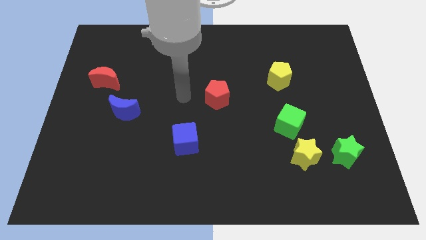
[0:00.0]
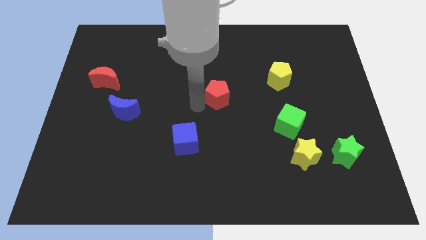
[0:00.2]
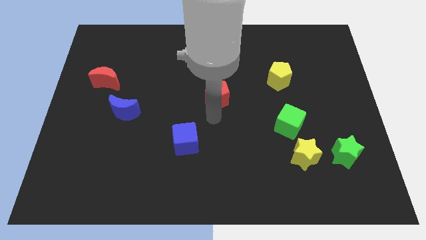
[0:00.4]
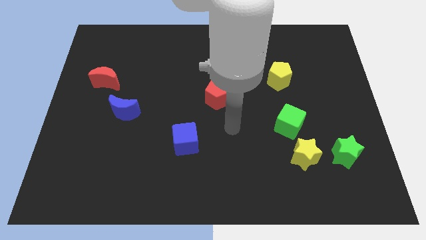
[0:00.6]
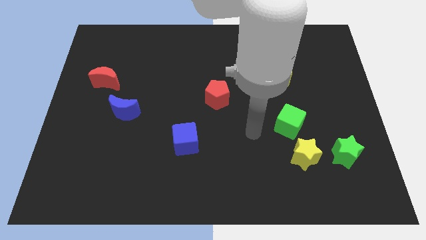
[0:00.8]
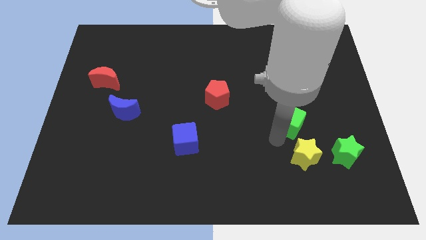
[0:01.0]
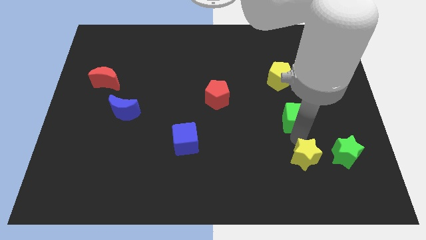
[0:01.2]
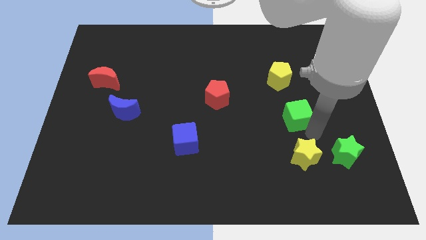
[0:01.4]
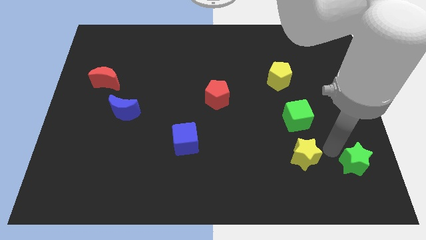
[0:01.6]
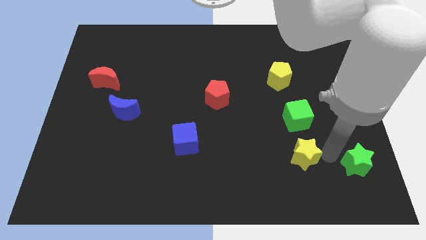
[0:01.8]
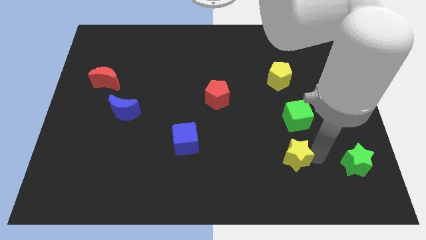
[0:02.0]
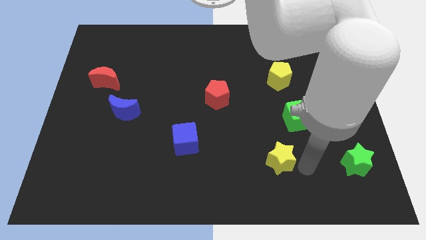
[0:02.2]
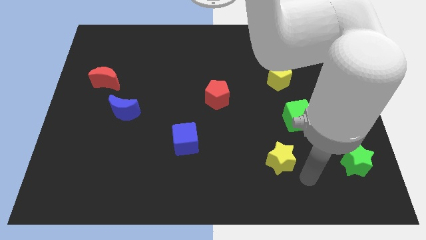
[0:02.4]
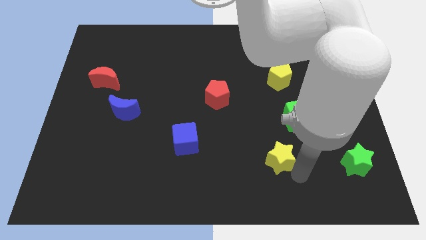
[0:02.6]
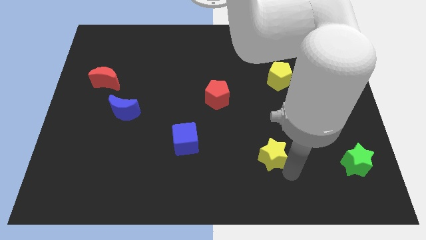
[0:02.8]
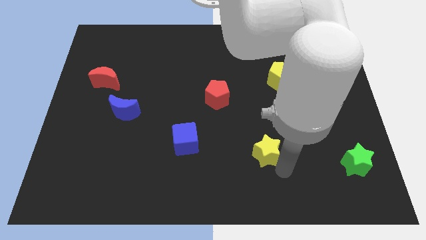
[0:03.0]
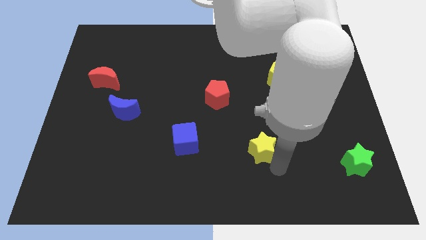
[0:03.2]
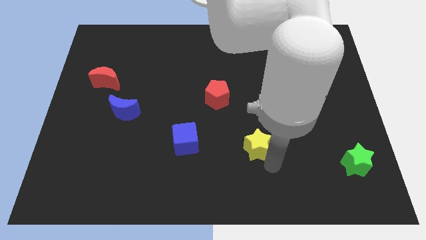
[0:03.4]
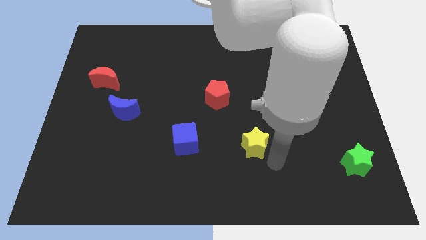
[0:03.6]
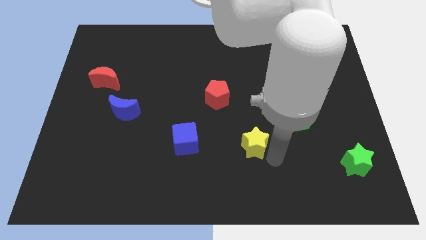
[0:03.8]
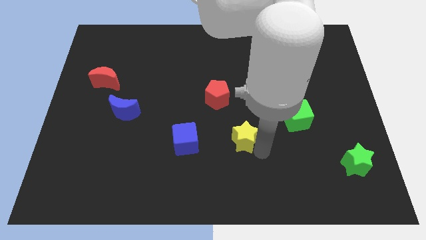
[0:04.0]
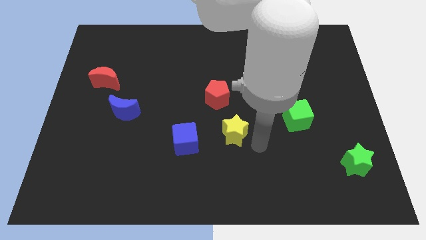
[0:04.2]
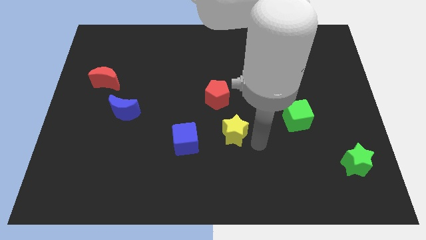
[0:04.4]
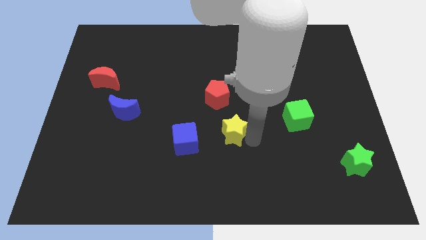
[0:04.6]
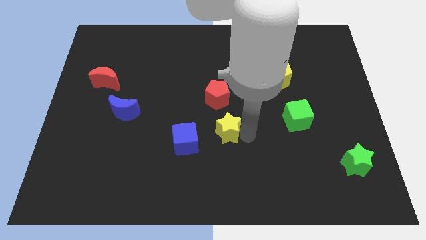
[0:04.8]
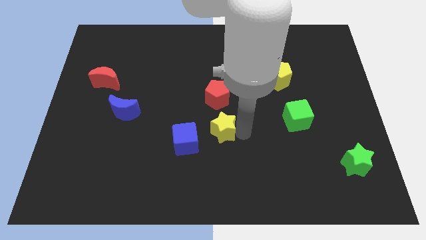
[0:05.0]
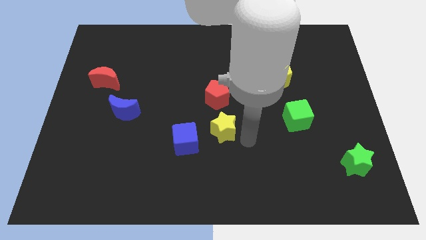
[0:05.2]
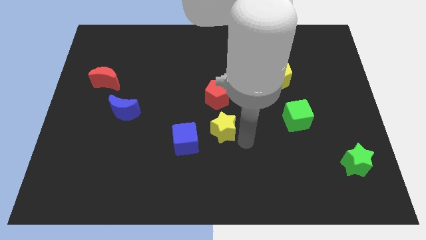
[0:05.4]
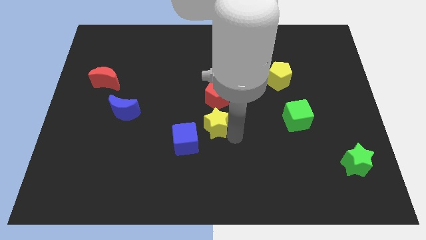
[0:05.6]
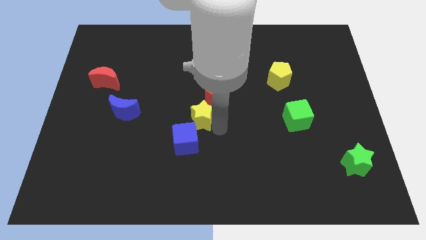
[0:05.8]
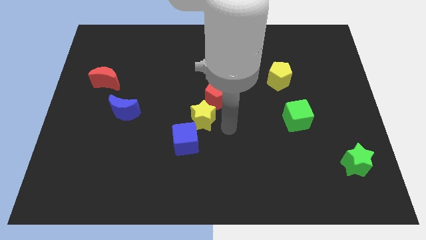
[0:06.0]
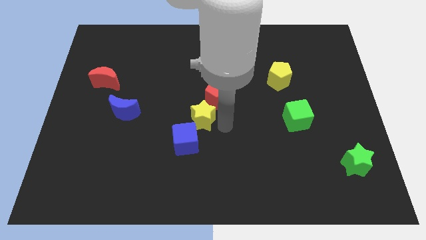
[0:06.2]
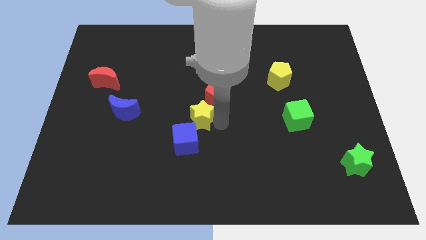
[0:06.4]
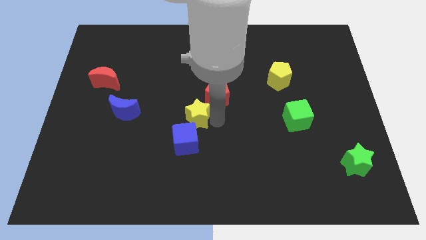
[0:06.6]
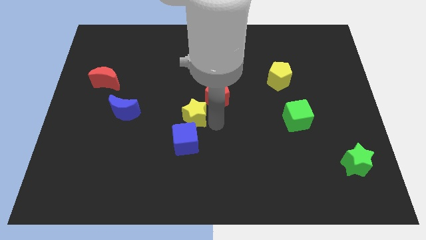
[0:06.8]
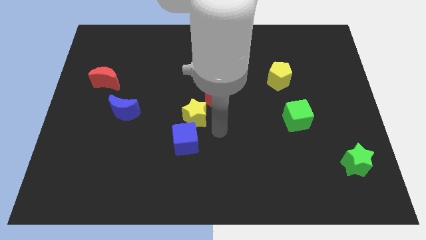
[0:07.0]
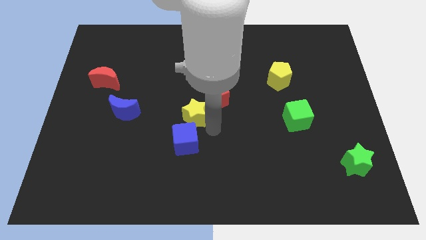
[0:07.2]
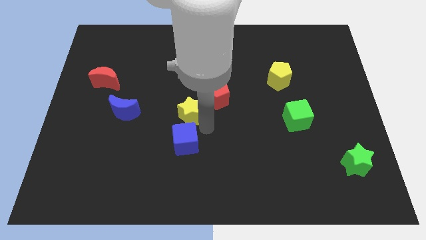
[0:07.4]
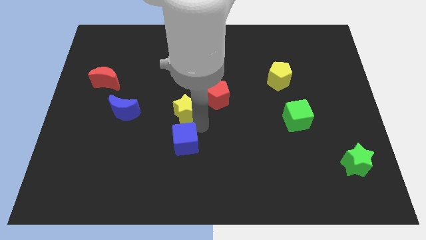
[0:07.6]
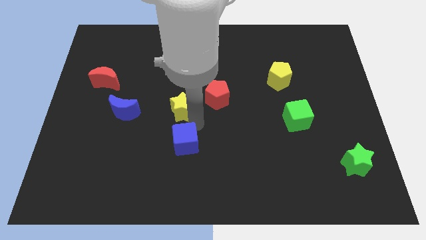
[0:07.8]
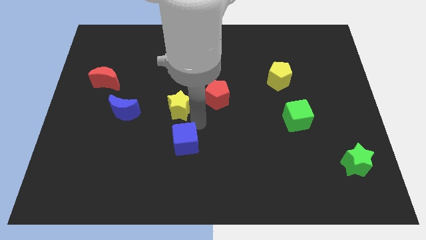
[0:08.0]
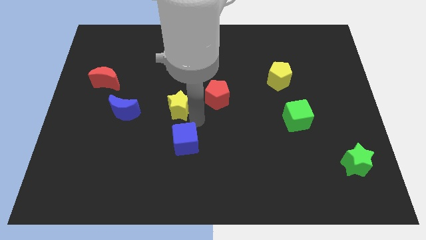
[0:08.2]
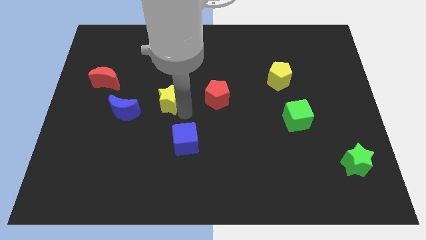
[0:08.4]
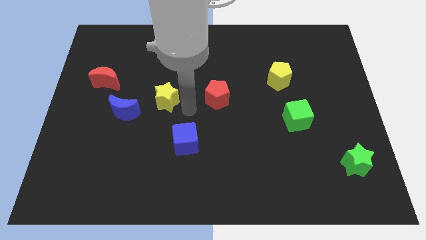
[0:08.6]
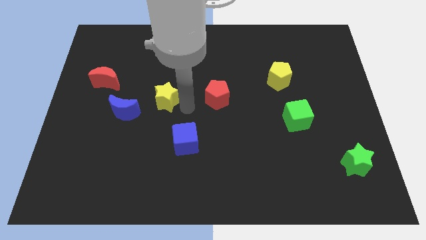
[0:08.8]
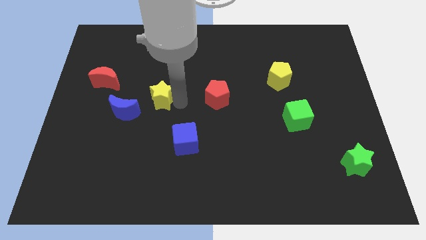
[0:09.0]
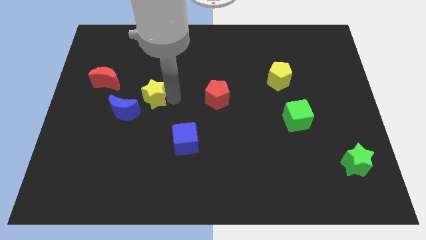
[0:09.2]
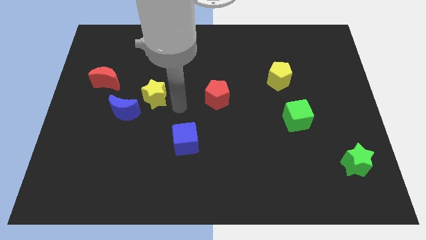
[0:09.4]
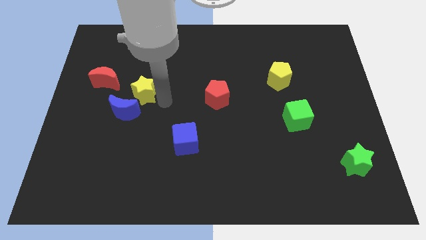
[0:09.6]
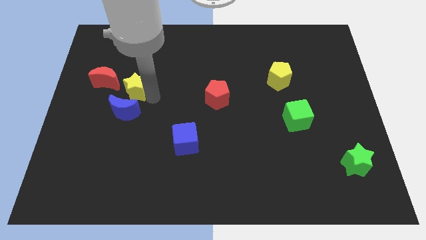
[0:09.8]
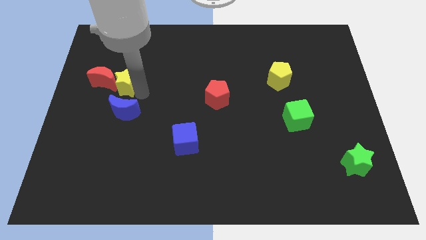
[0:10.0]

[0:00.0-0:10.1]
move the yellow star to the red moon

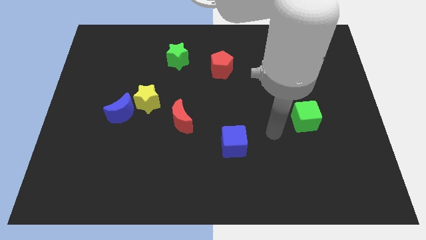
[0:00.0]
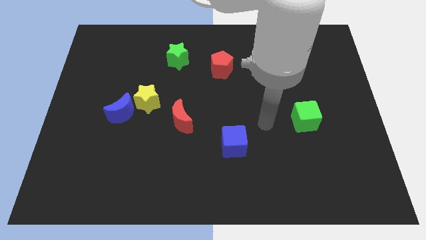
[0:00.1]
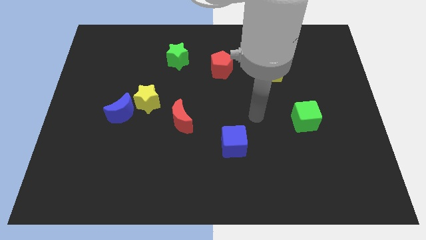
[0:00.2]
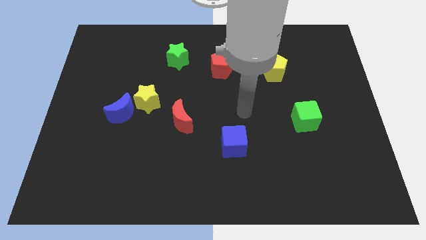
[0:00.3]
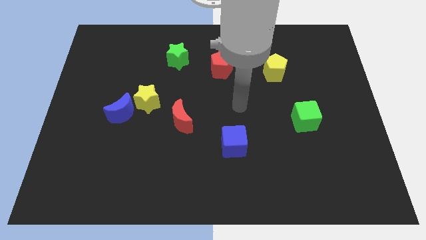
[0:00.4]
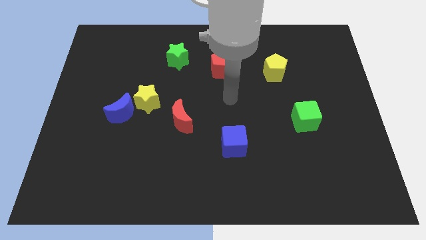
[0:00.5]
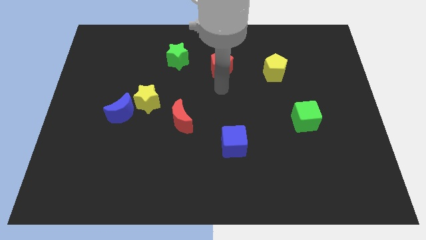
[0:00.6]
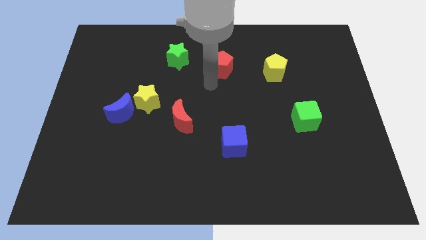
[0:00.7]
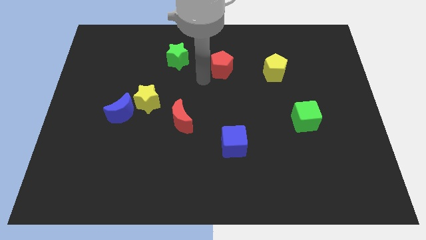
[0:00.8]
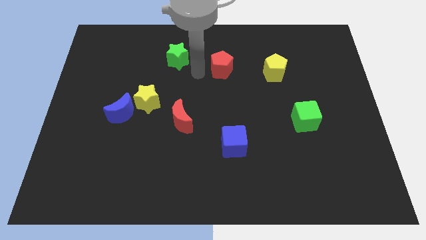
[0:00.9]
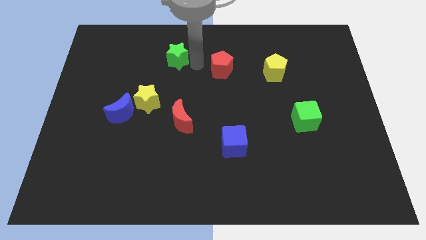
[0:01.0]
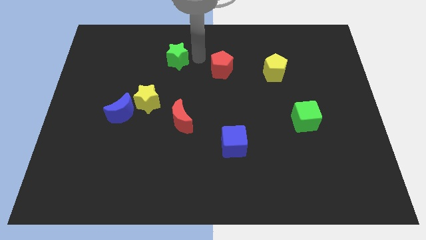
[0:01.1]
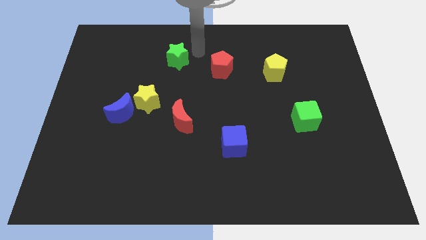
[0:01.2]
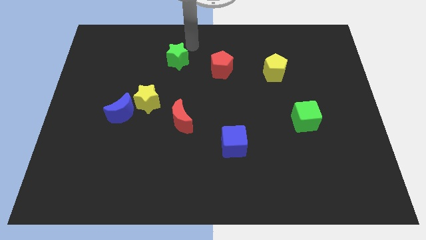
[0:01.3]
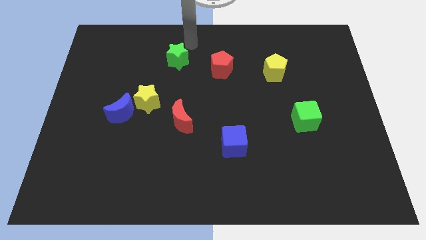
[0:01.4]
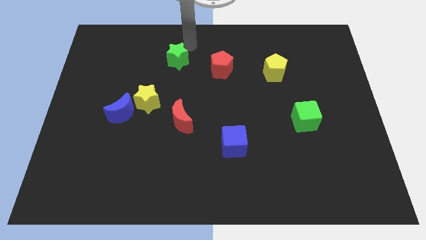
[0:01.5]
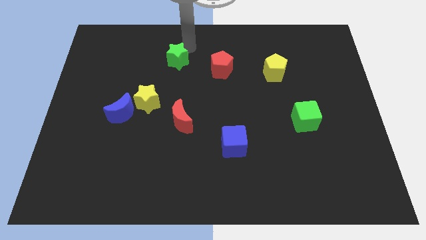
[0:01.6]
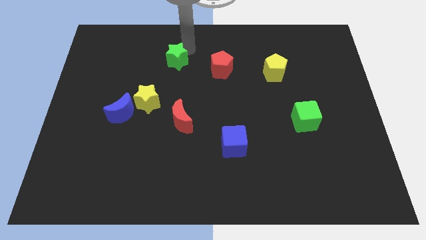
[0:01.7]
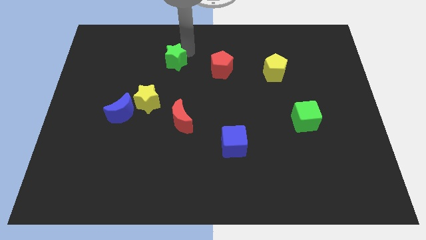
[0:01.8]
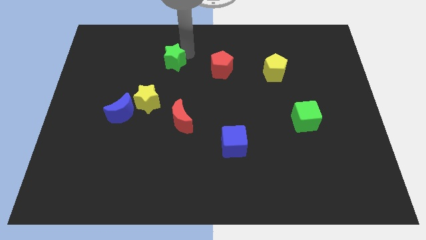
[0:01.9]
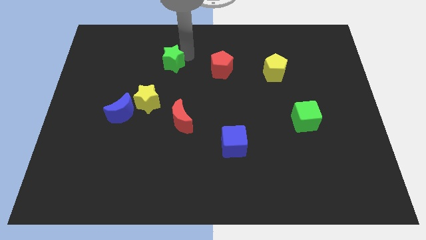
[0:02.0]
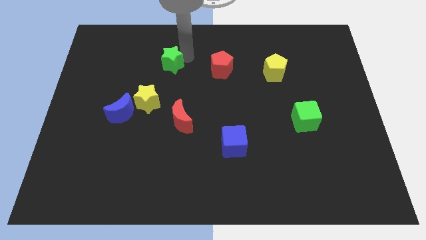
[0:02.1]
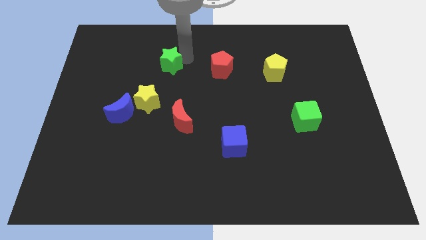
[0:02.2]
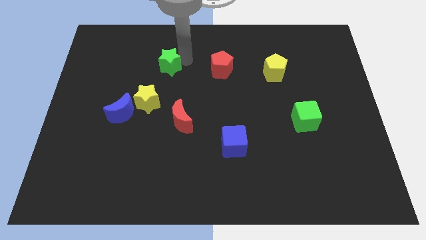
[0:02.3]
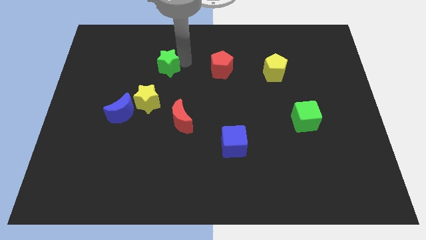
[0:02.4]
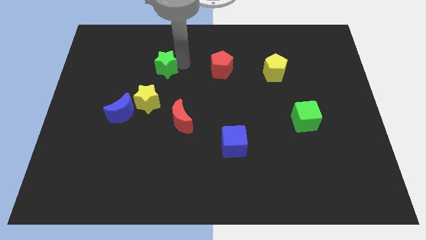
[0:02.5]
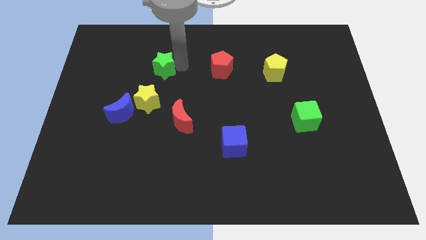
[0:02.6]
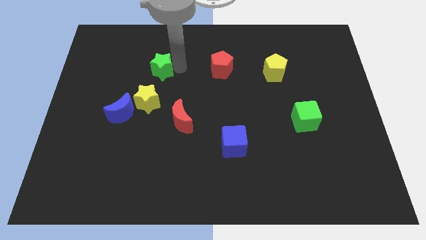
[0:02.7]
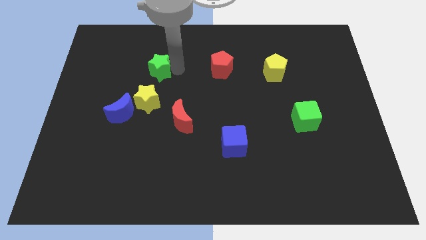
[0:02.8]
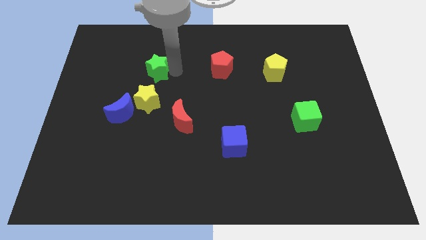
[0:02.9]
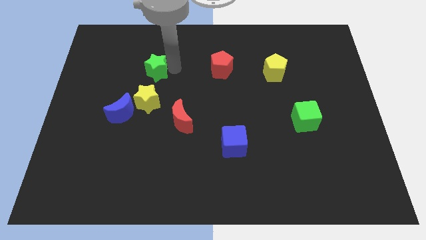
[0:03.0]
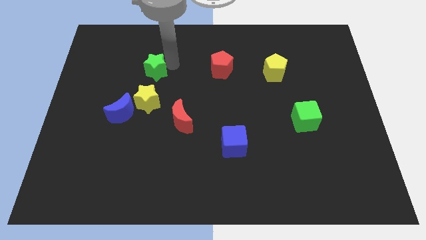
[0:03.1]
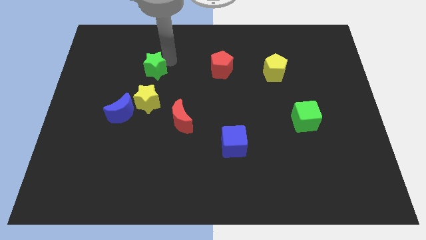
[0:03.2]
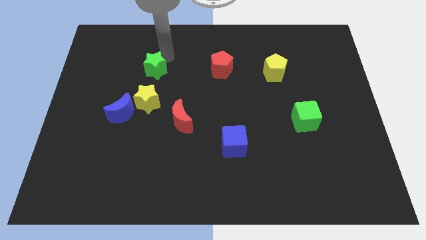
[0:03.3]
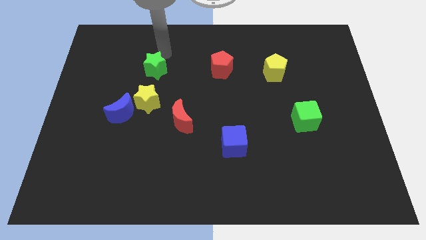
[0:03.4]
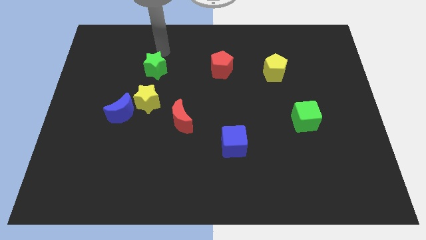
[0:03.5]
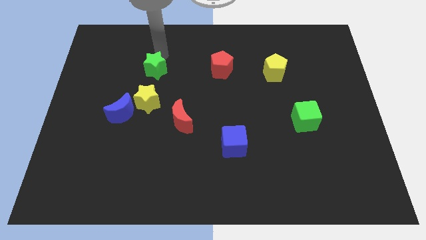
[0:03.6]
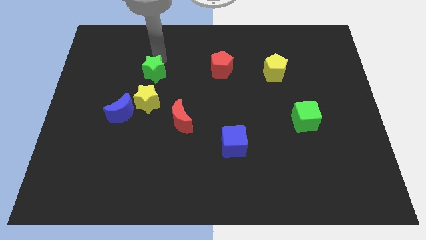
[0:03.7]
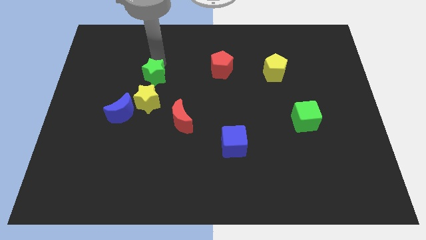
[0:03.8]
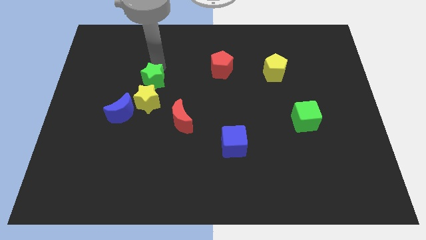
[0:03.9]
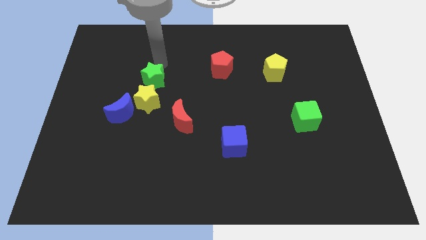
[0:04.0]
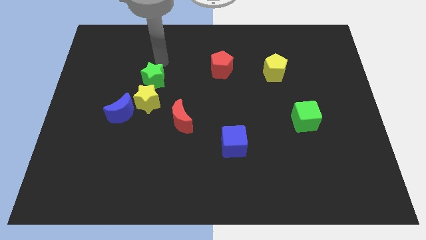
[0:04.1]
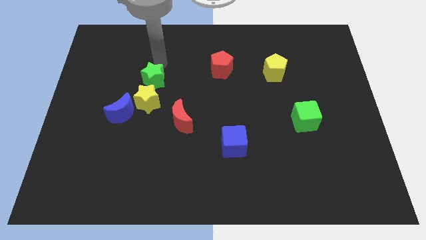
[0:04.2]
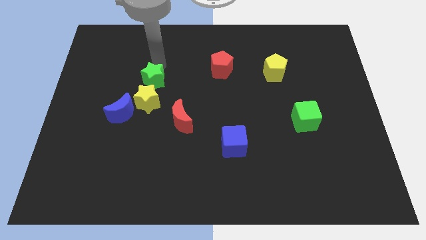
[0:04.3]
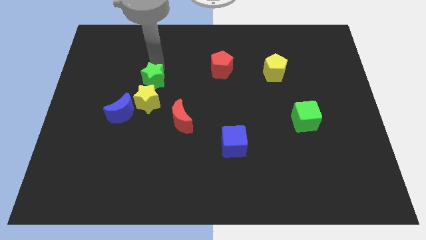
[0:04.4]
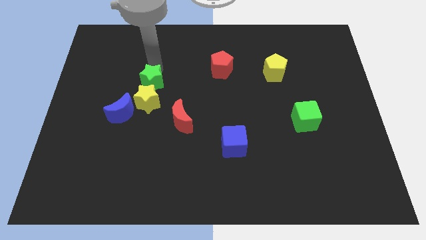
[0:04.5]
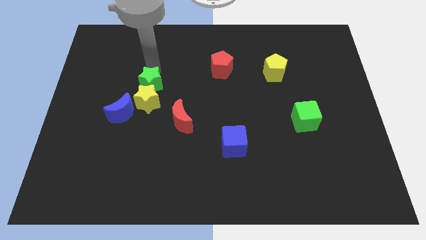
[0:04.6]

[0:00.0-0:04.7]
move the green star to the yellow star
